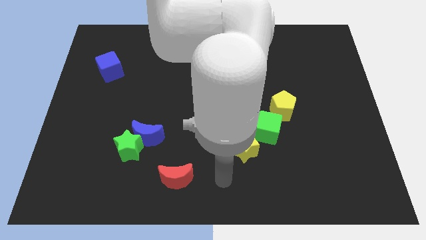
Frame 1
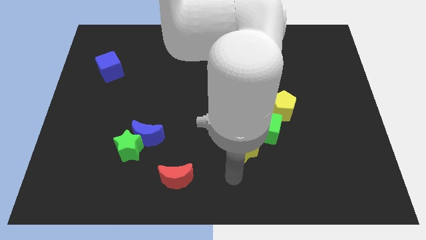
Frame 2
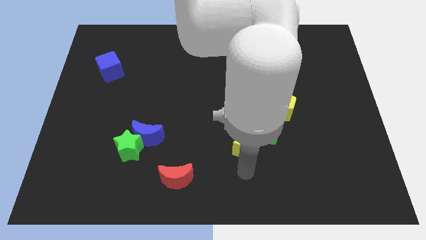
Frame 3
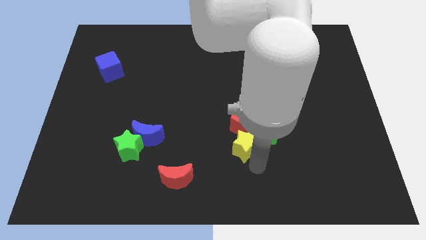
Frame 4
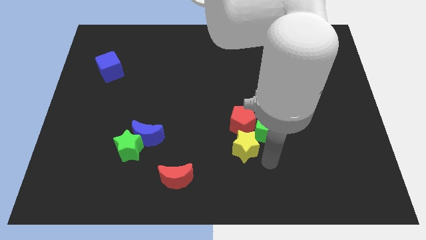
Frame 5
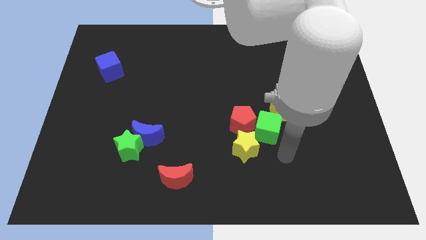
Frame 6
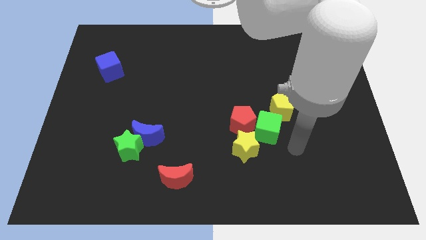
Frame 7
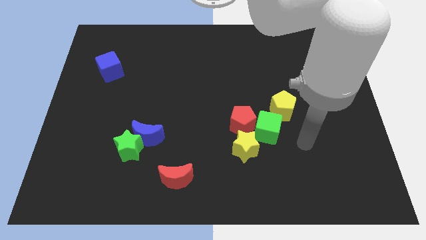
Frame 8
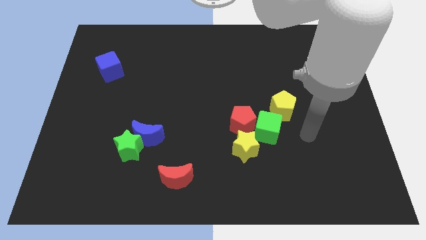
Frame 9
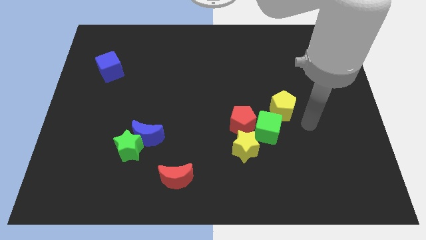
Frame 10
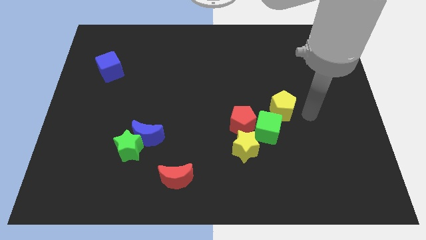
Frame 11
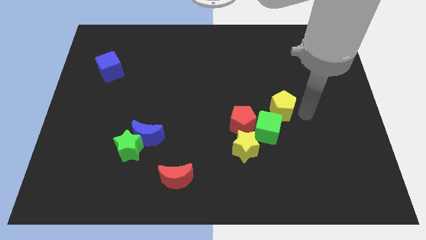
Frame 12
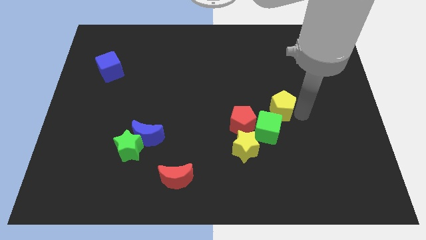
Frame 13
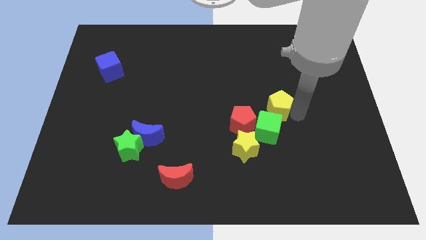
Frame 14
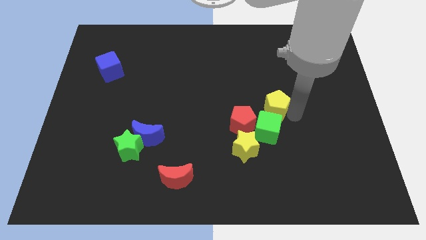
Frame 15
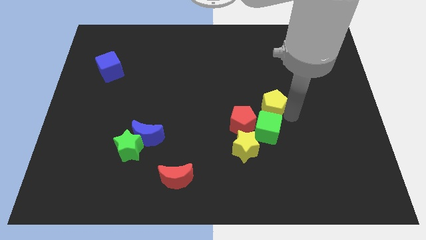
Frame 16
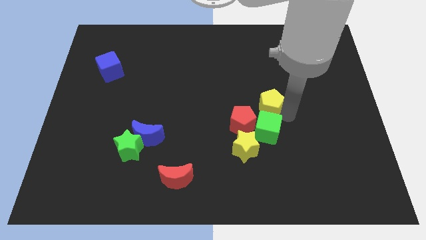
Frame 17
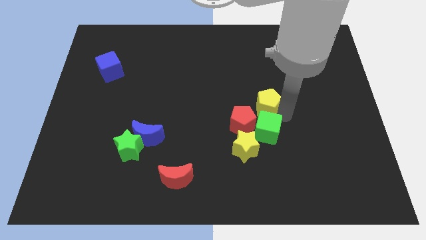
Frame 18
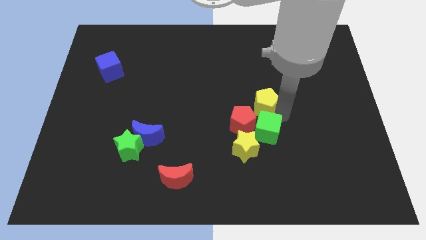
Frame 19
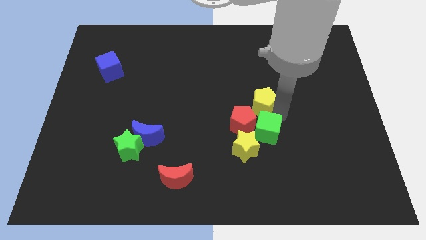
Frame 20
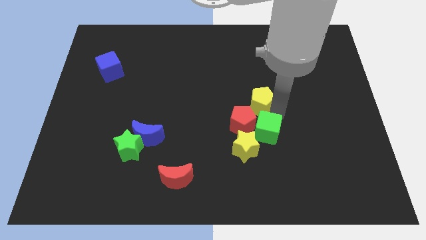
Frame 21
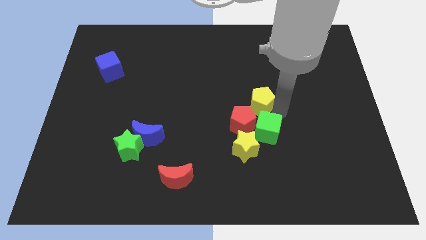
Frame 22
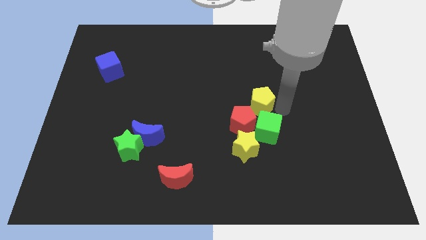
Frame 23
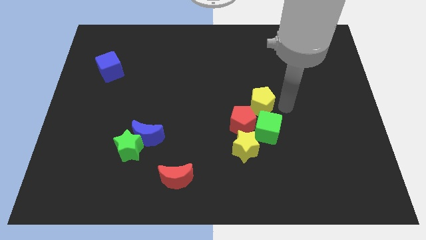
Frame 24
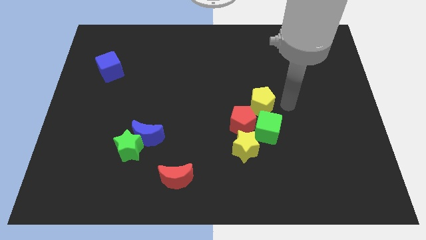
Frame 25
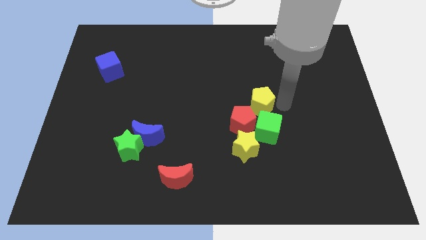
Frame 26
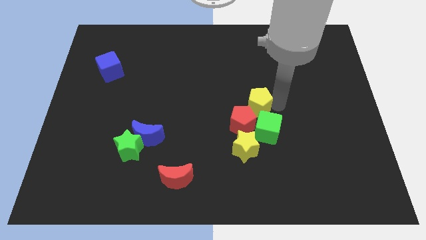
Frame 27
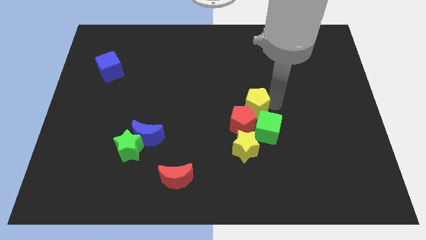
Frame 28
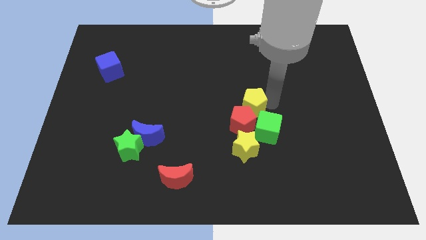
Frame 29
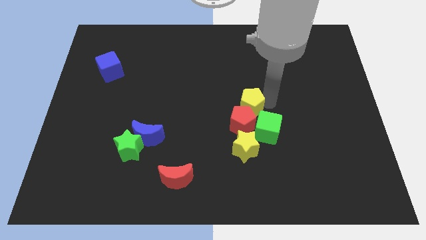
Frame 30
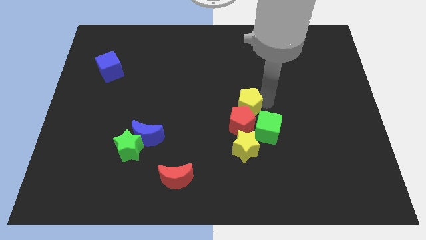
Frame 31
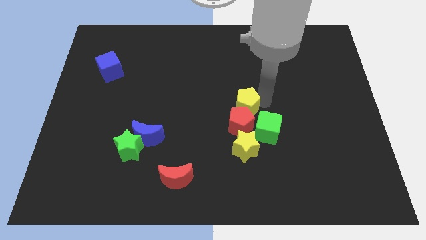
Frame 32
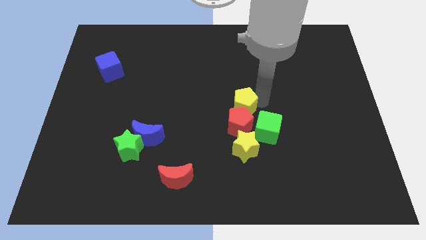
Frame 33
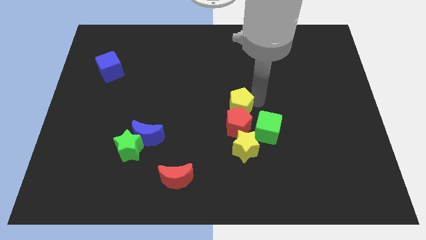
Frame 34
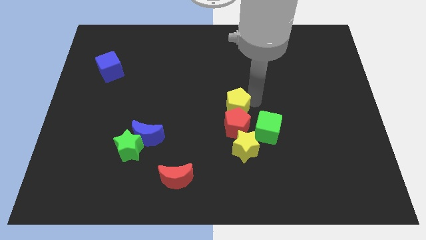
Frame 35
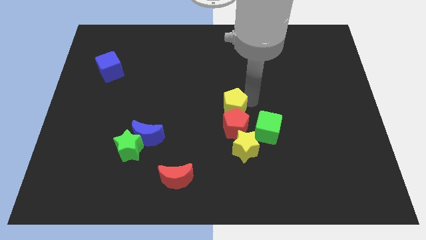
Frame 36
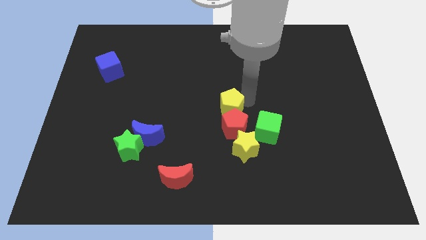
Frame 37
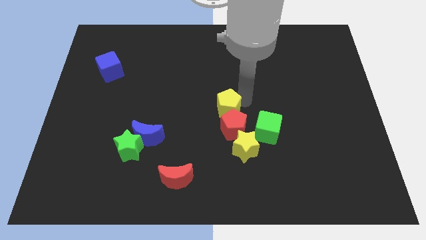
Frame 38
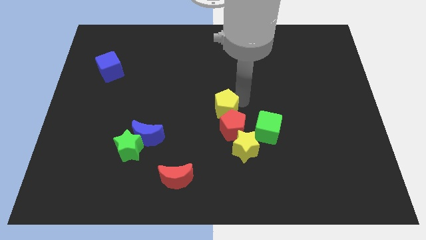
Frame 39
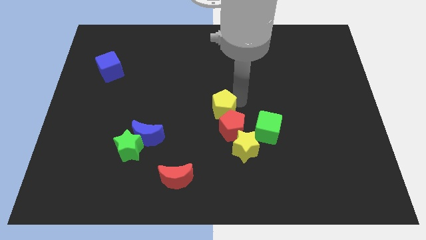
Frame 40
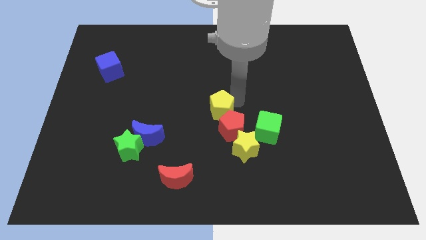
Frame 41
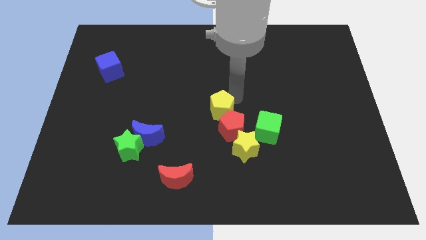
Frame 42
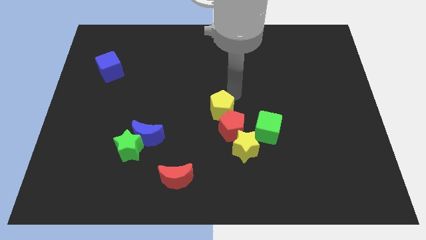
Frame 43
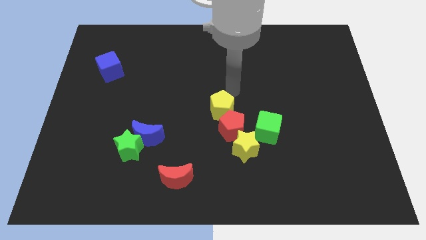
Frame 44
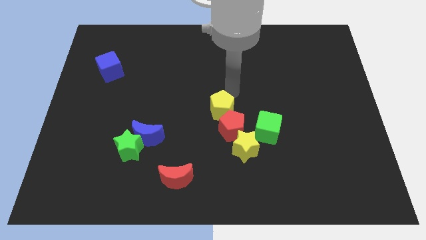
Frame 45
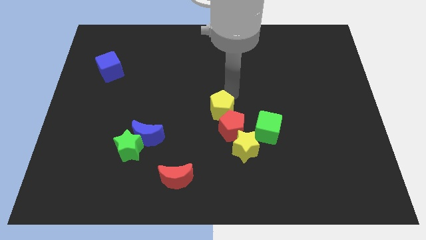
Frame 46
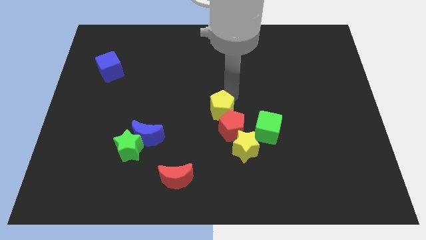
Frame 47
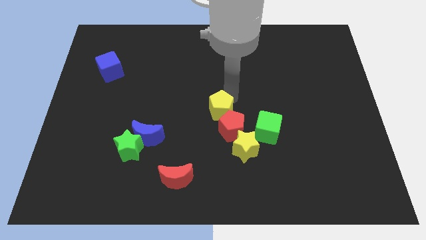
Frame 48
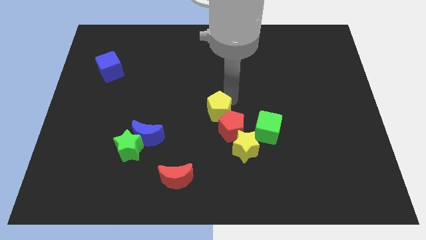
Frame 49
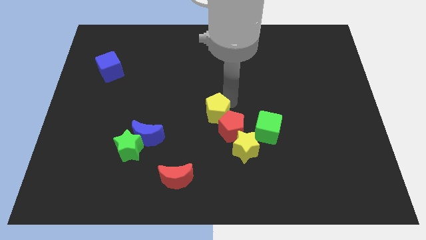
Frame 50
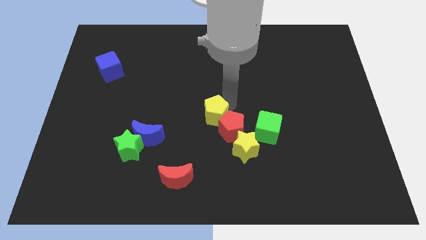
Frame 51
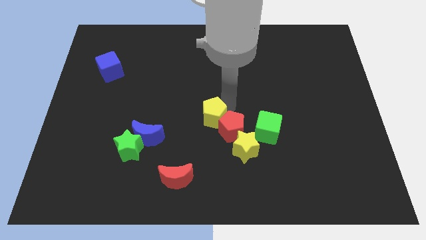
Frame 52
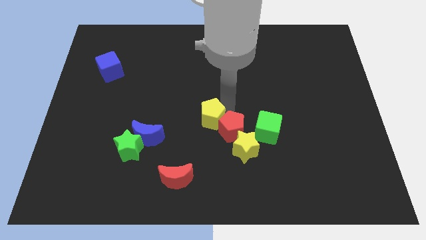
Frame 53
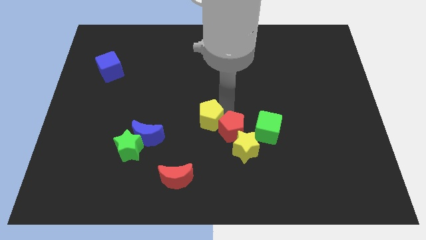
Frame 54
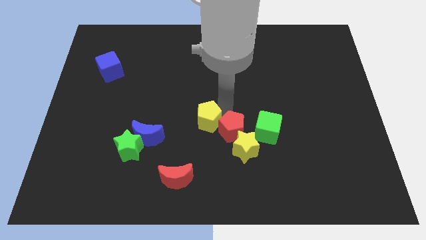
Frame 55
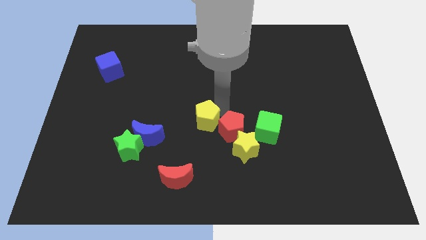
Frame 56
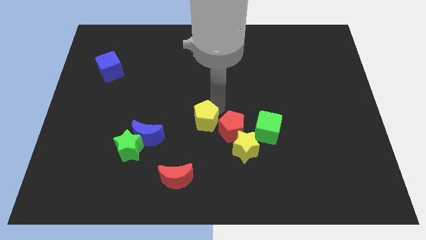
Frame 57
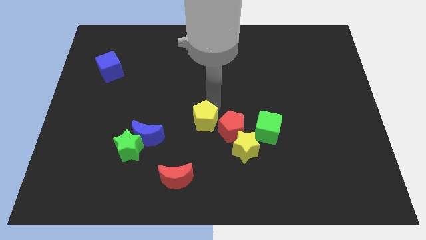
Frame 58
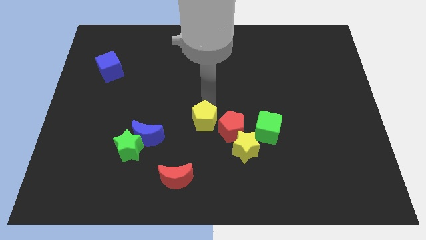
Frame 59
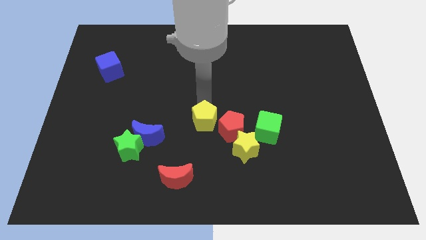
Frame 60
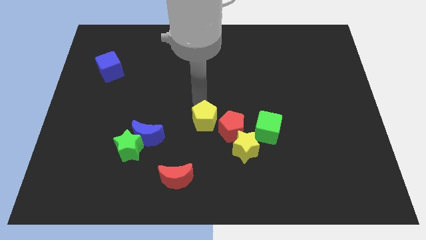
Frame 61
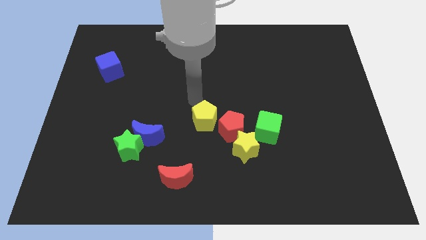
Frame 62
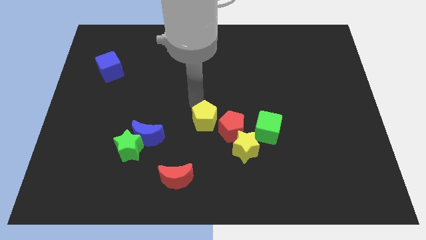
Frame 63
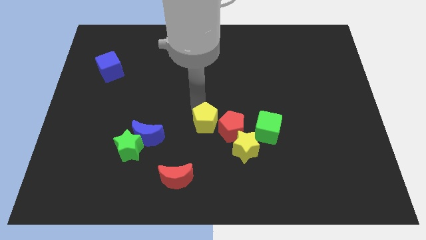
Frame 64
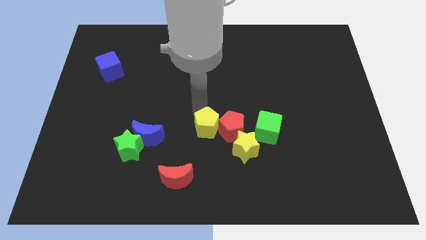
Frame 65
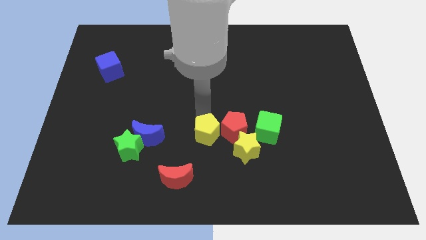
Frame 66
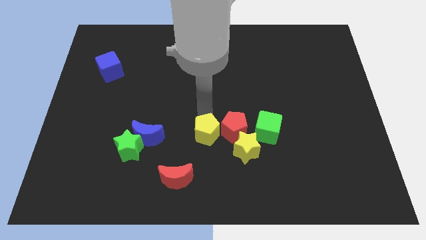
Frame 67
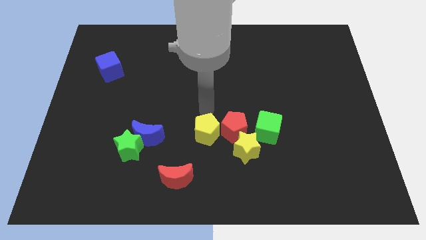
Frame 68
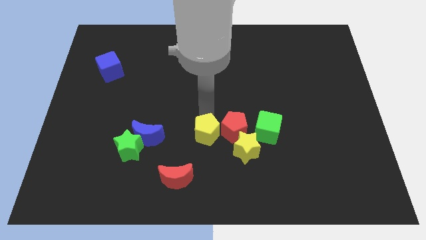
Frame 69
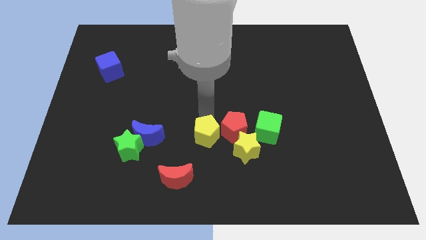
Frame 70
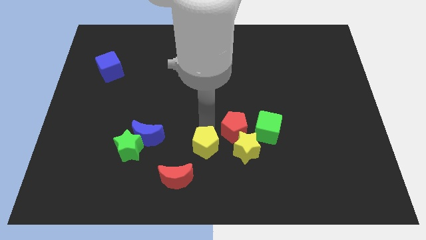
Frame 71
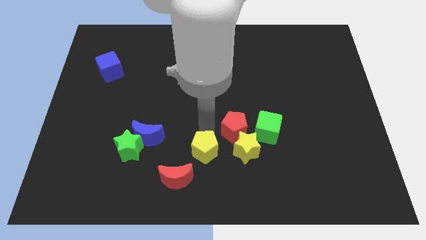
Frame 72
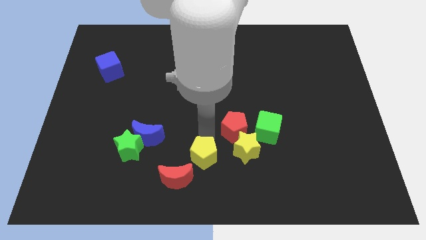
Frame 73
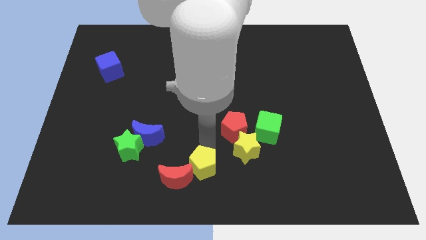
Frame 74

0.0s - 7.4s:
put the yellow pentagon towards the red moon

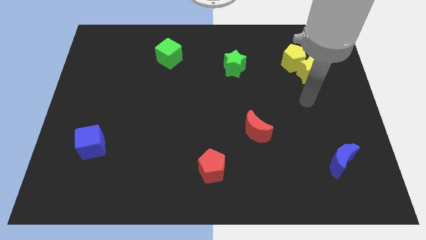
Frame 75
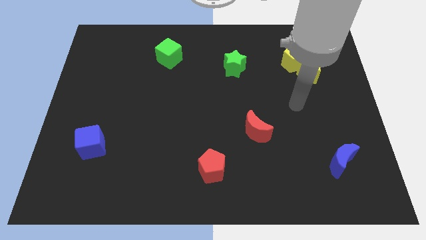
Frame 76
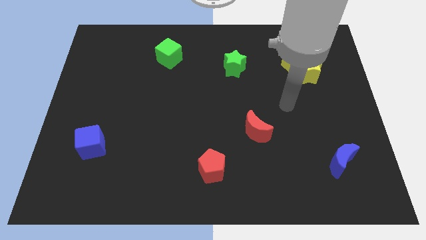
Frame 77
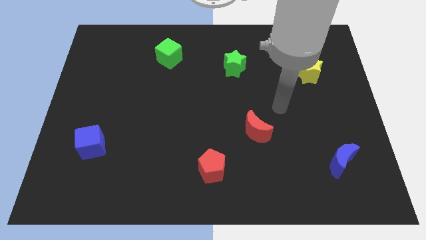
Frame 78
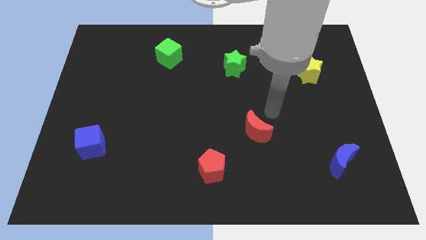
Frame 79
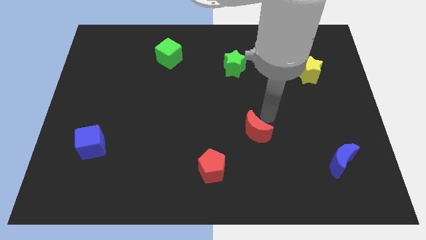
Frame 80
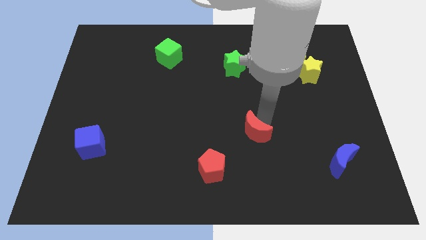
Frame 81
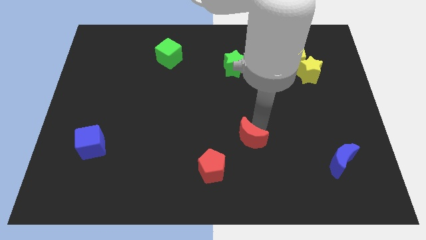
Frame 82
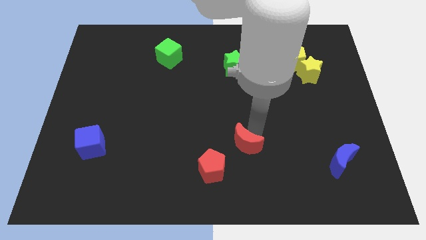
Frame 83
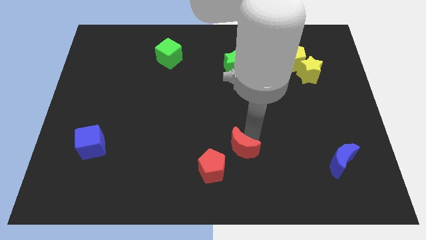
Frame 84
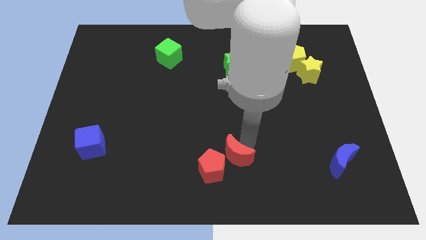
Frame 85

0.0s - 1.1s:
slide the red moon next to the red pentagon
